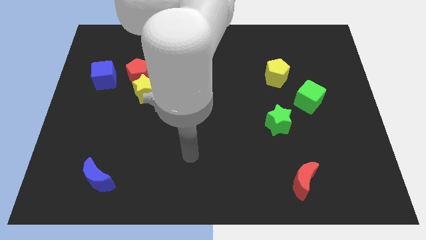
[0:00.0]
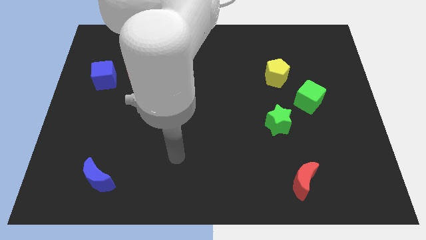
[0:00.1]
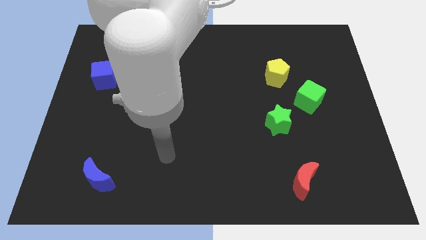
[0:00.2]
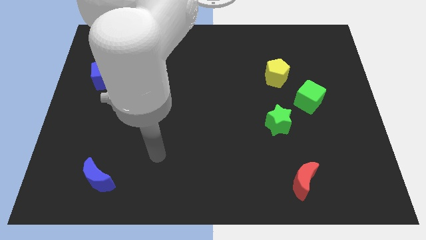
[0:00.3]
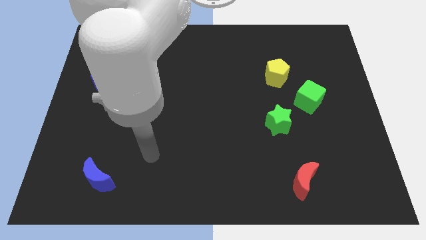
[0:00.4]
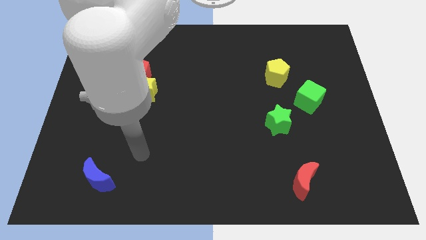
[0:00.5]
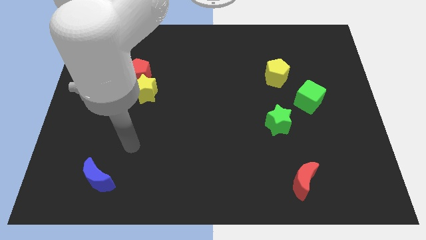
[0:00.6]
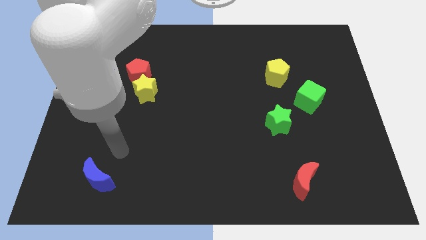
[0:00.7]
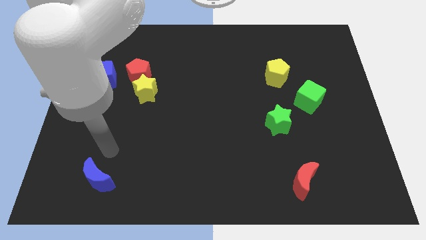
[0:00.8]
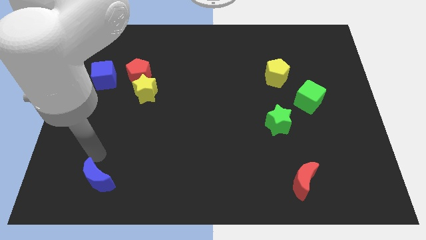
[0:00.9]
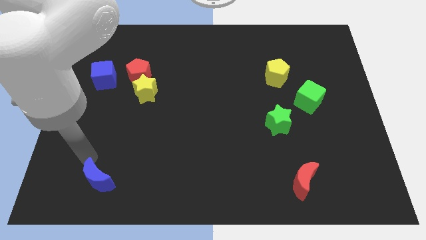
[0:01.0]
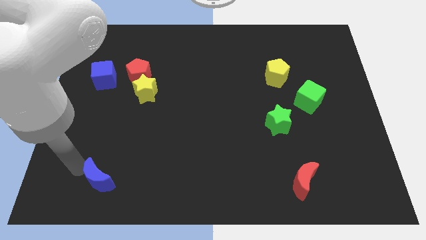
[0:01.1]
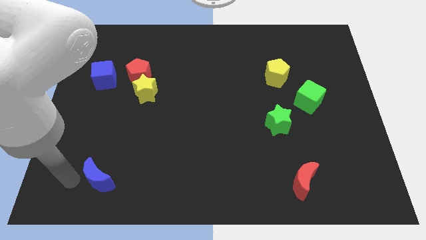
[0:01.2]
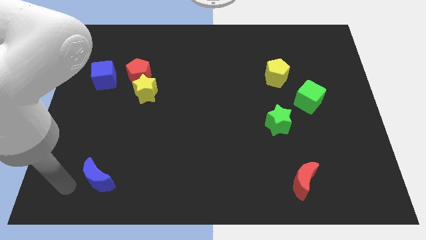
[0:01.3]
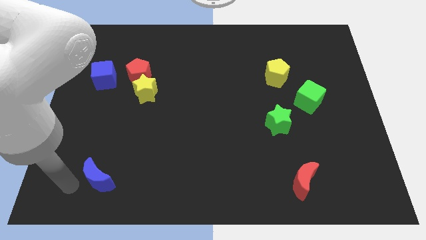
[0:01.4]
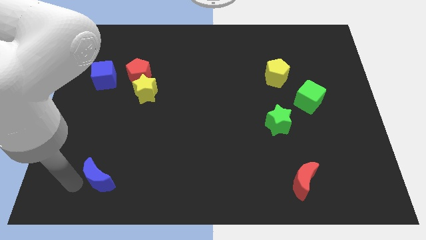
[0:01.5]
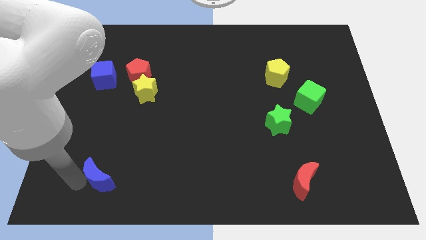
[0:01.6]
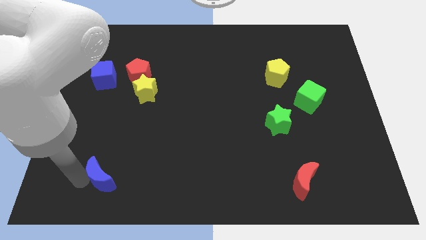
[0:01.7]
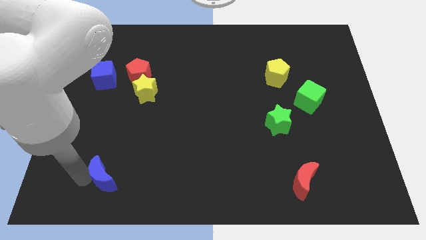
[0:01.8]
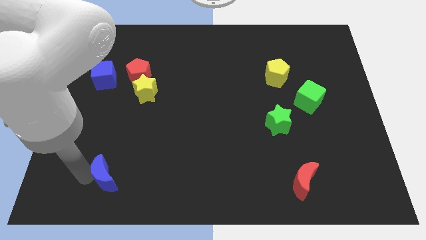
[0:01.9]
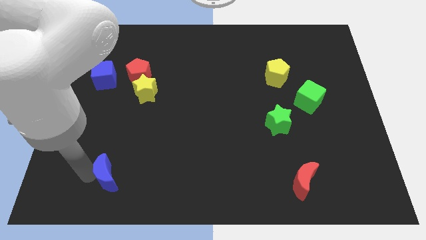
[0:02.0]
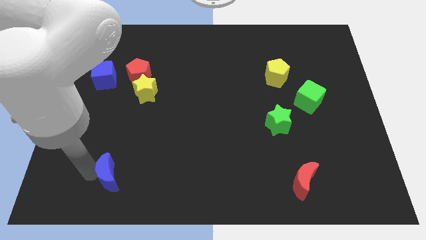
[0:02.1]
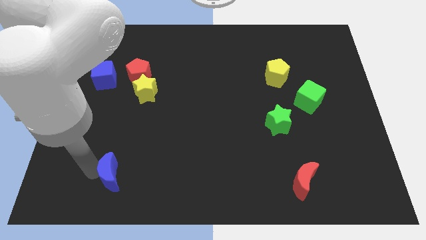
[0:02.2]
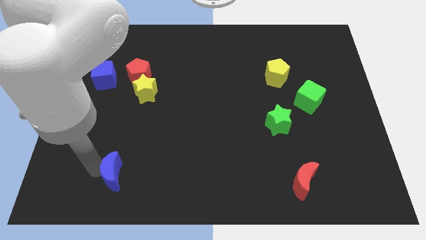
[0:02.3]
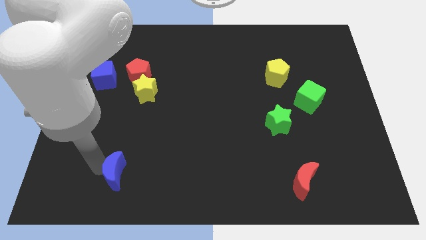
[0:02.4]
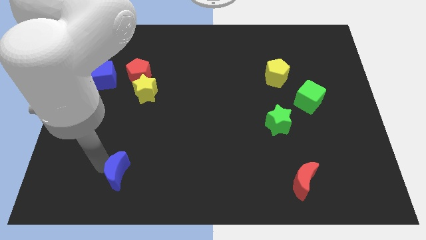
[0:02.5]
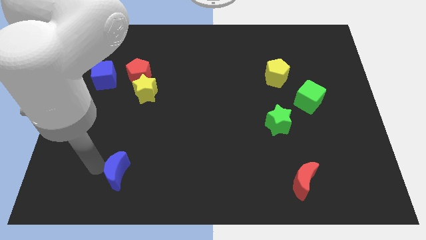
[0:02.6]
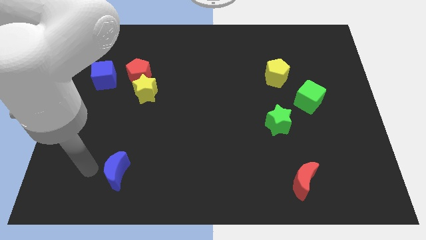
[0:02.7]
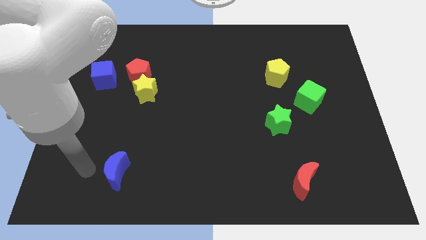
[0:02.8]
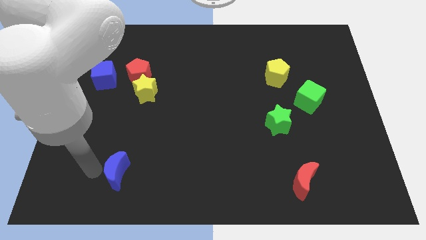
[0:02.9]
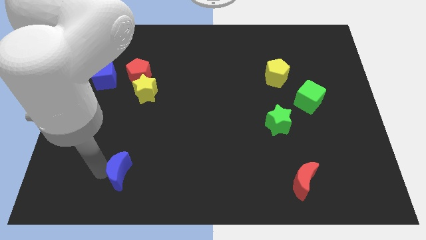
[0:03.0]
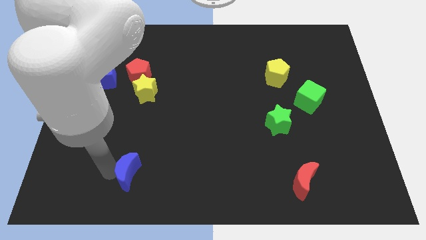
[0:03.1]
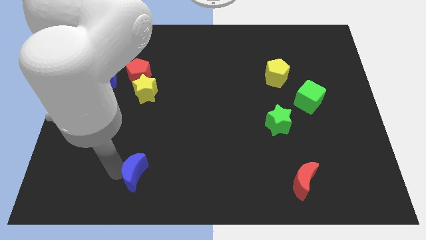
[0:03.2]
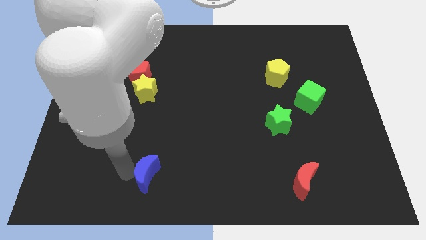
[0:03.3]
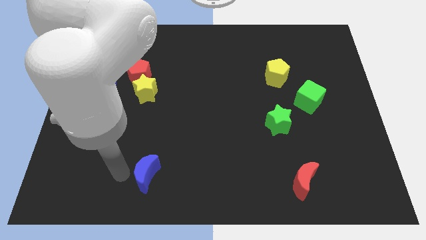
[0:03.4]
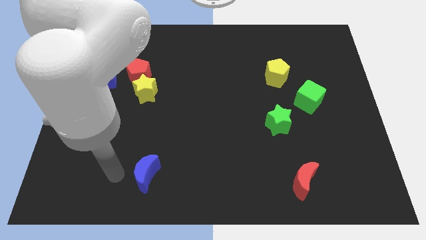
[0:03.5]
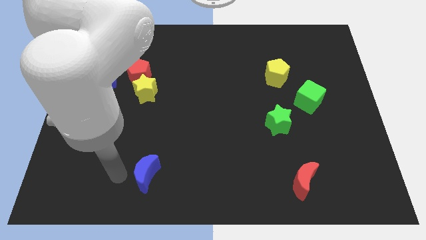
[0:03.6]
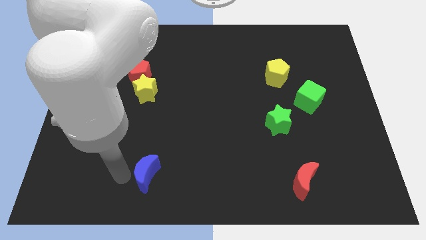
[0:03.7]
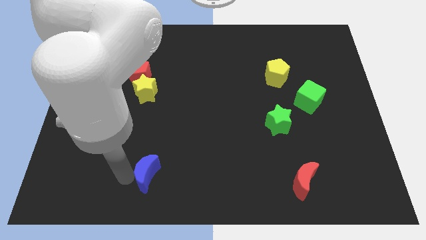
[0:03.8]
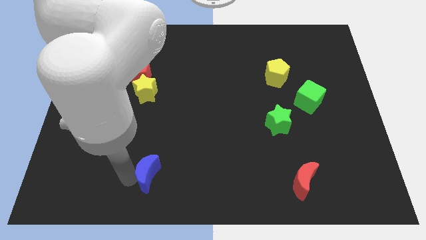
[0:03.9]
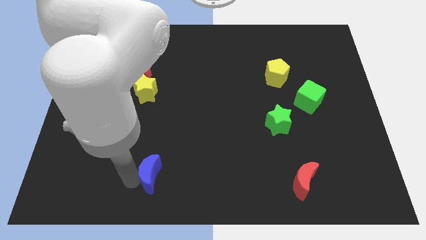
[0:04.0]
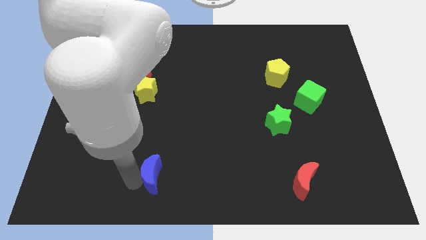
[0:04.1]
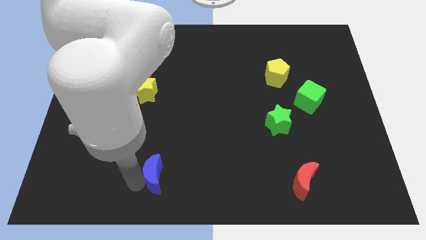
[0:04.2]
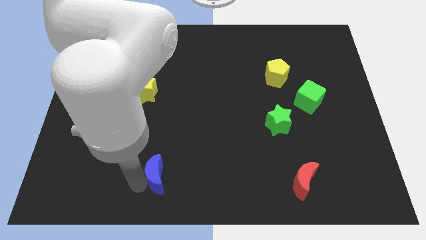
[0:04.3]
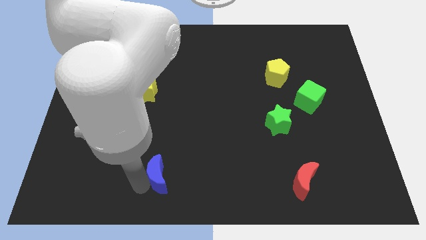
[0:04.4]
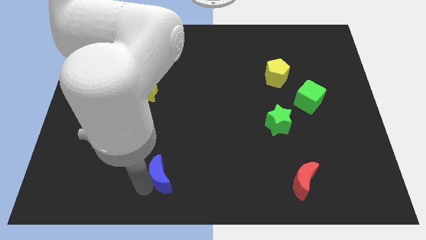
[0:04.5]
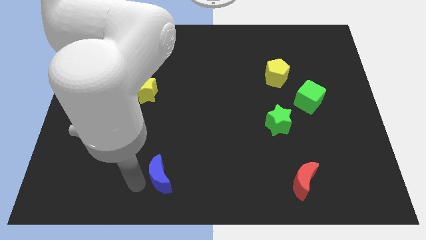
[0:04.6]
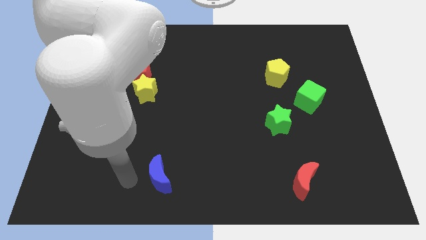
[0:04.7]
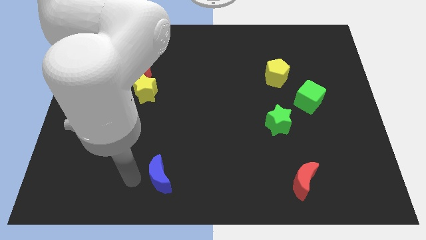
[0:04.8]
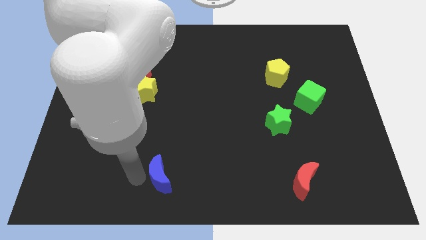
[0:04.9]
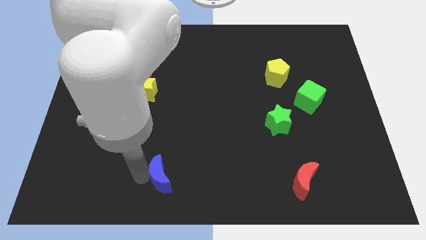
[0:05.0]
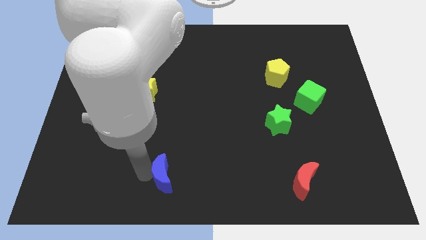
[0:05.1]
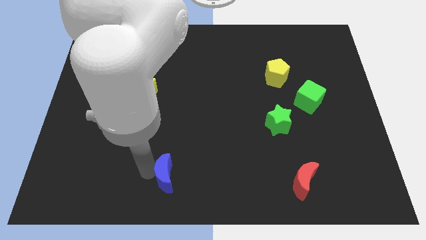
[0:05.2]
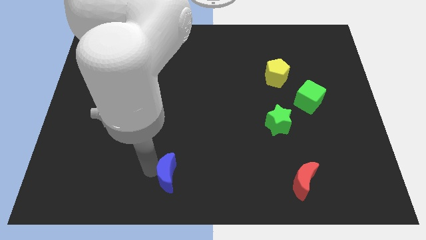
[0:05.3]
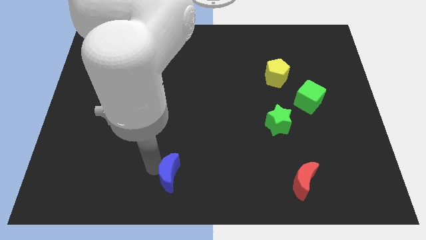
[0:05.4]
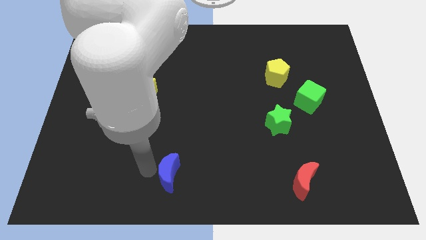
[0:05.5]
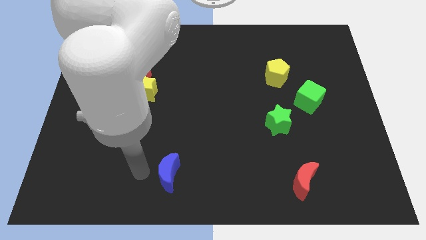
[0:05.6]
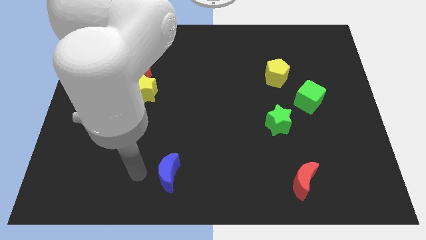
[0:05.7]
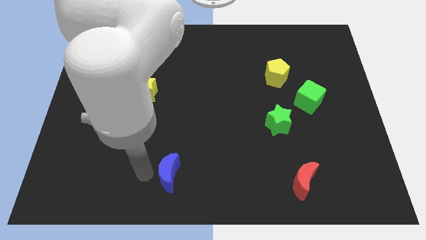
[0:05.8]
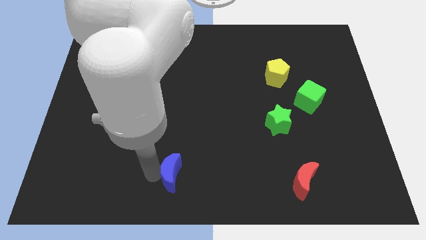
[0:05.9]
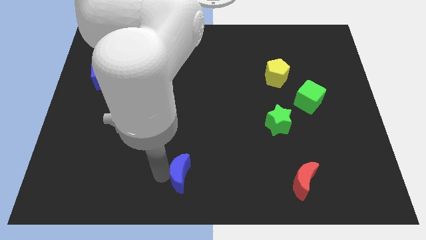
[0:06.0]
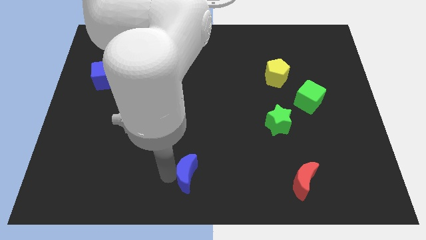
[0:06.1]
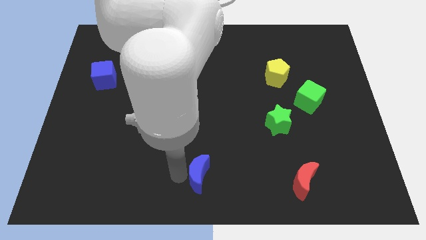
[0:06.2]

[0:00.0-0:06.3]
move the blue moon to the right

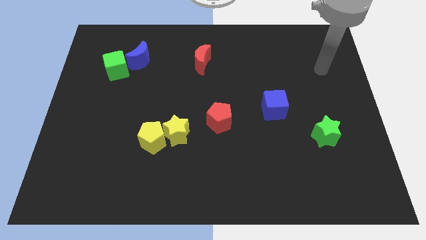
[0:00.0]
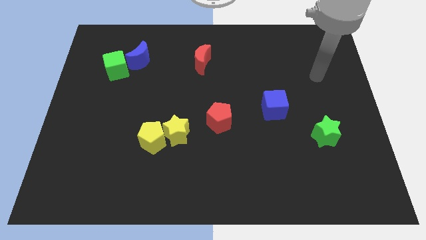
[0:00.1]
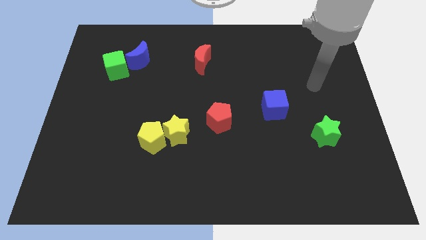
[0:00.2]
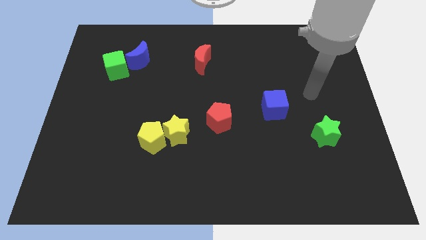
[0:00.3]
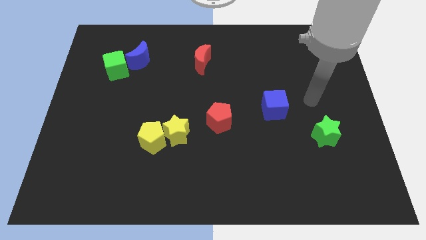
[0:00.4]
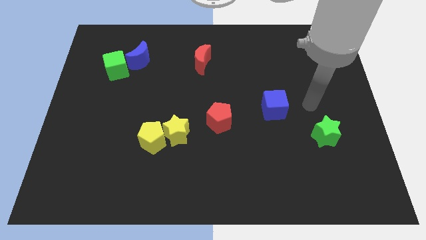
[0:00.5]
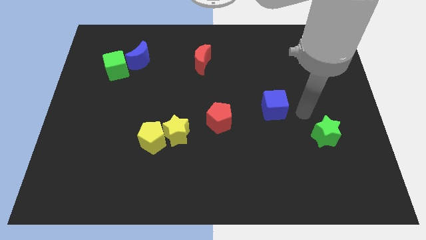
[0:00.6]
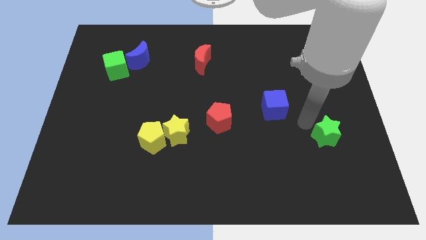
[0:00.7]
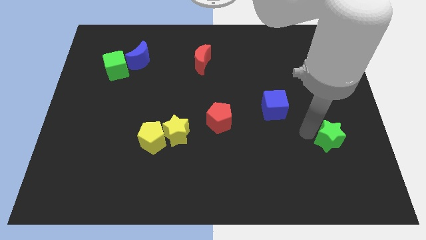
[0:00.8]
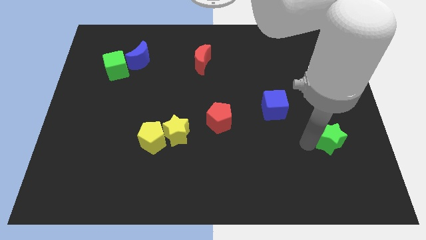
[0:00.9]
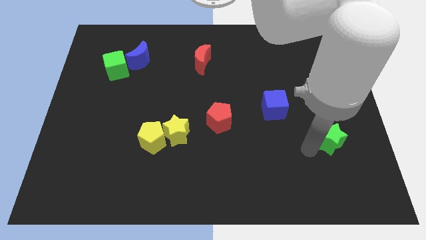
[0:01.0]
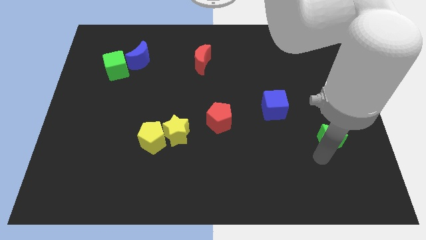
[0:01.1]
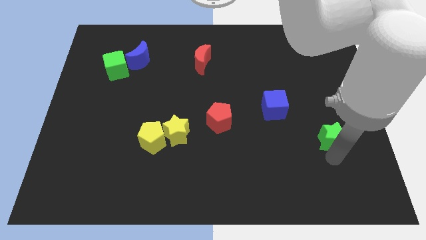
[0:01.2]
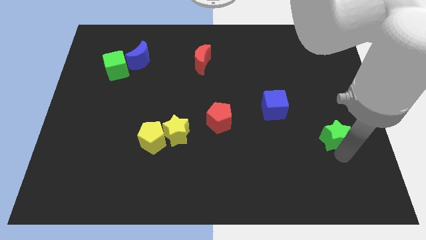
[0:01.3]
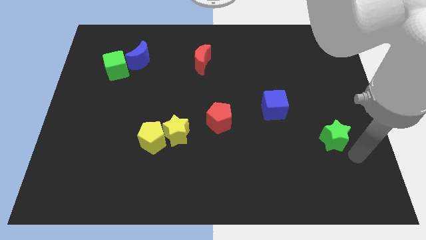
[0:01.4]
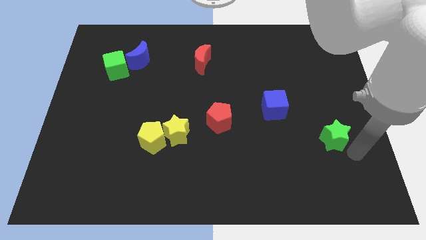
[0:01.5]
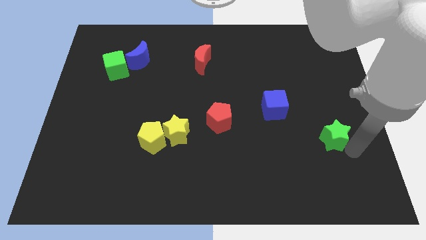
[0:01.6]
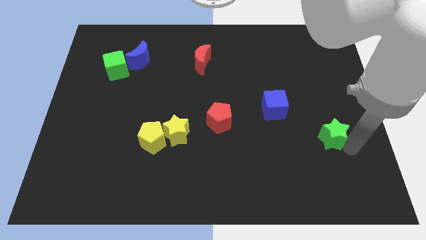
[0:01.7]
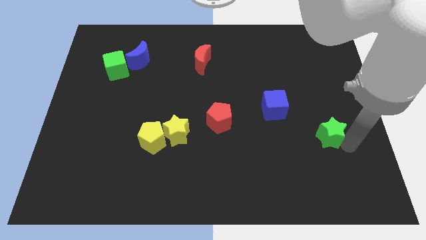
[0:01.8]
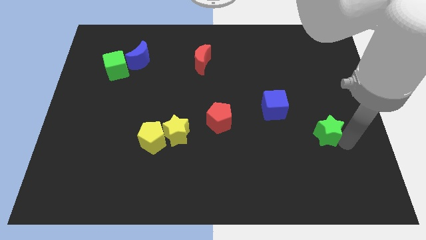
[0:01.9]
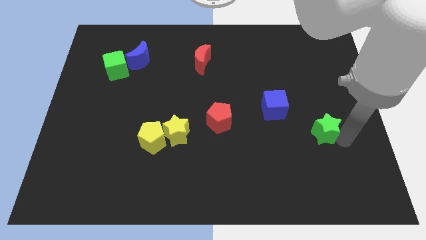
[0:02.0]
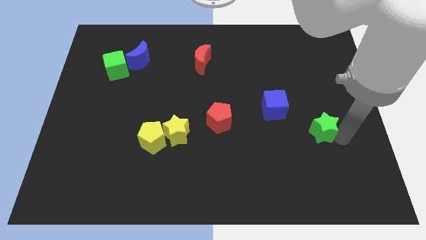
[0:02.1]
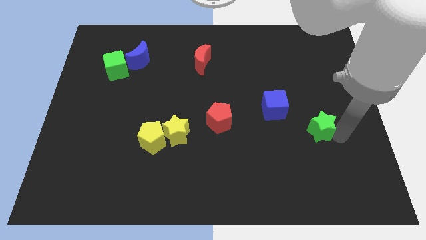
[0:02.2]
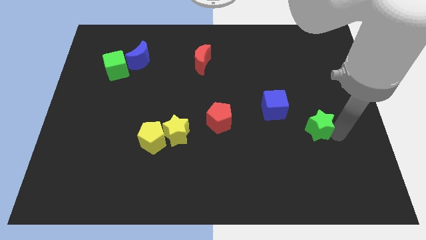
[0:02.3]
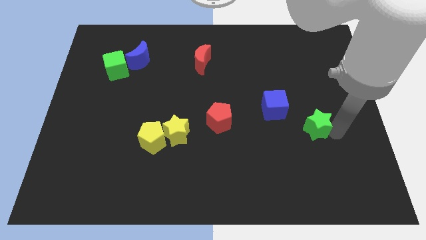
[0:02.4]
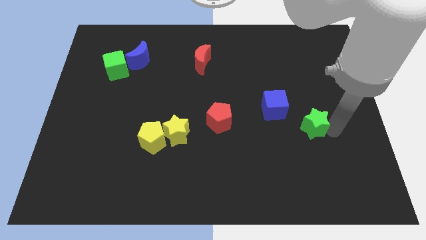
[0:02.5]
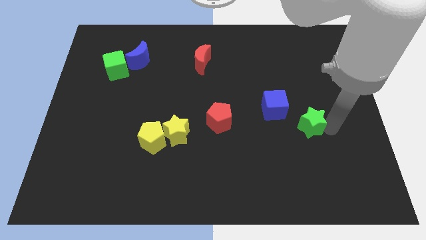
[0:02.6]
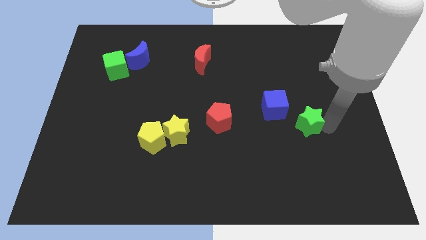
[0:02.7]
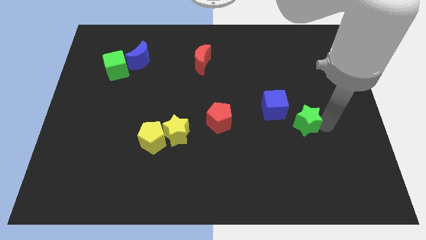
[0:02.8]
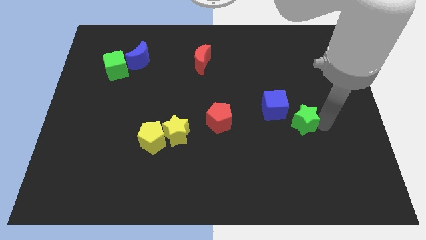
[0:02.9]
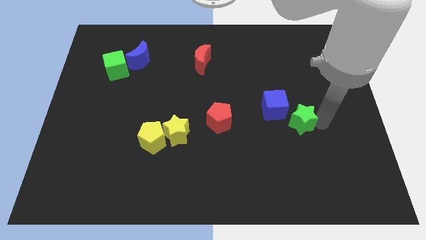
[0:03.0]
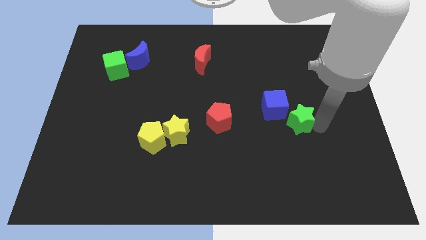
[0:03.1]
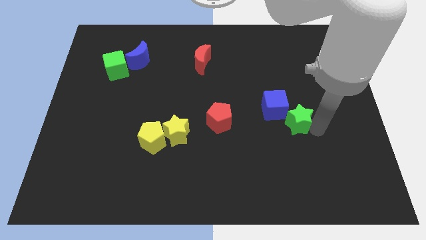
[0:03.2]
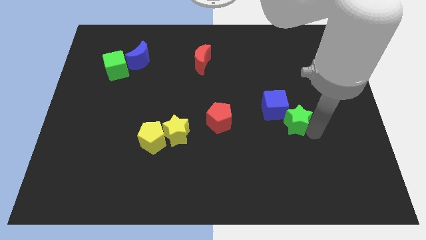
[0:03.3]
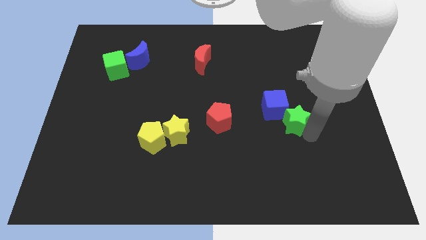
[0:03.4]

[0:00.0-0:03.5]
slide the green star a bit diagonally up and left
